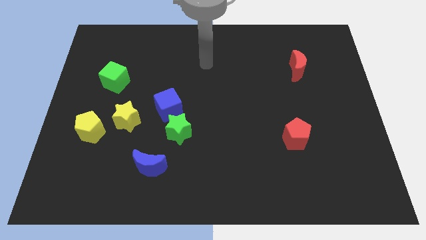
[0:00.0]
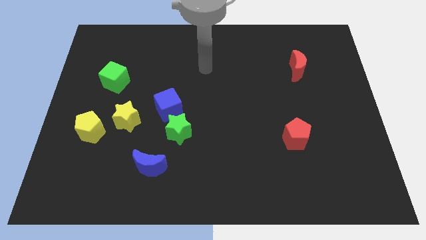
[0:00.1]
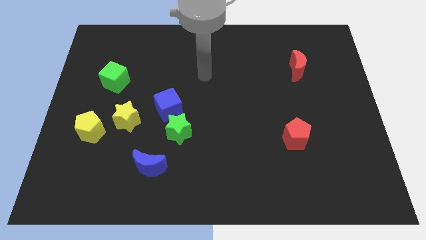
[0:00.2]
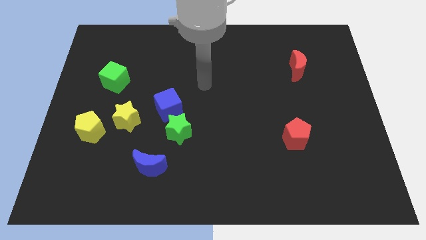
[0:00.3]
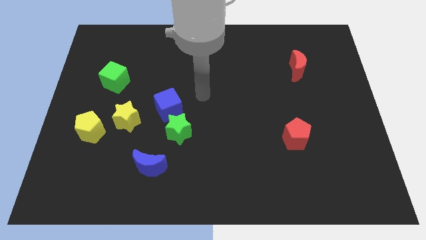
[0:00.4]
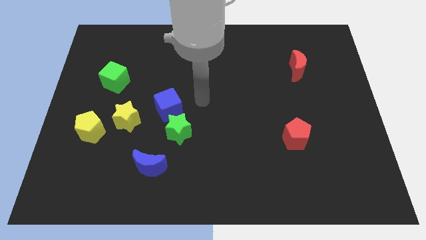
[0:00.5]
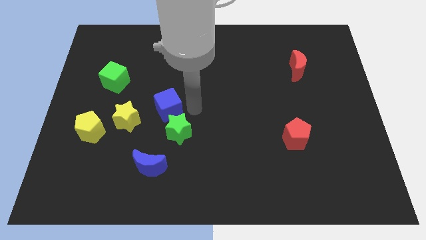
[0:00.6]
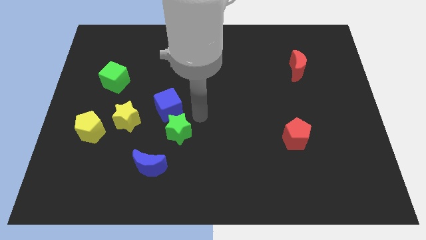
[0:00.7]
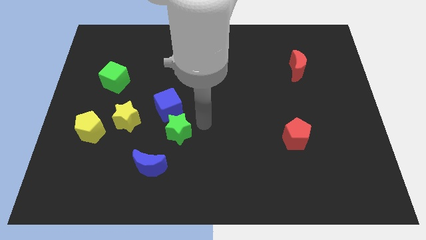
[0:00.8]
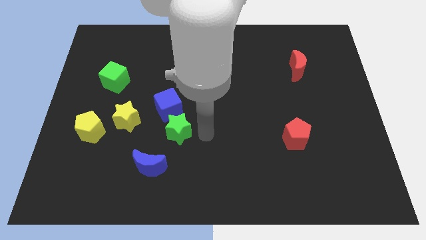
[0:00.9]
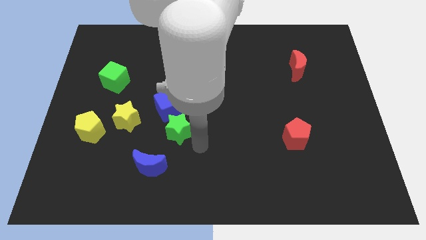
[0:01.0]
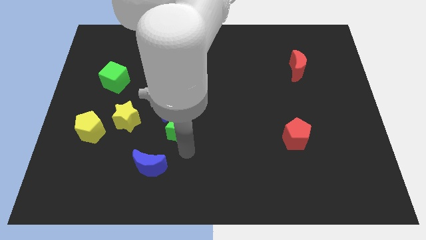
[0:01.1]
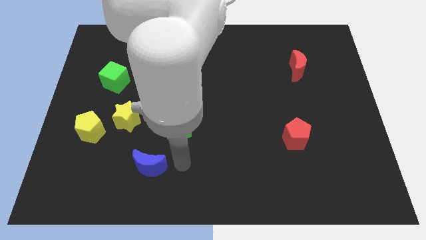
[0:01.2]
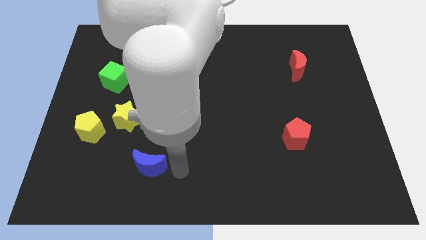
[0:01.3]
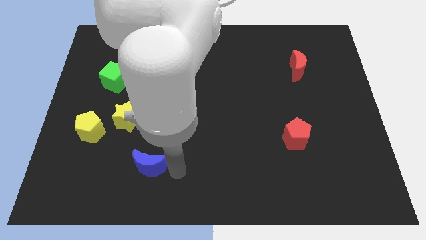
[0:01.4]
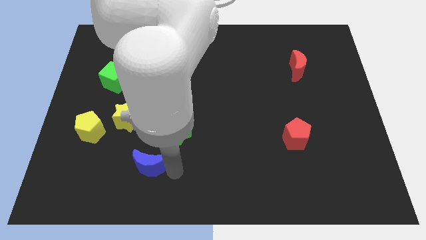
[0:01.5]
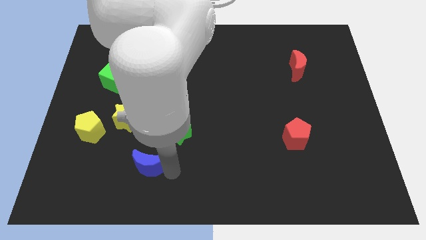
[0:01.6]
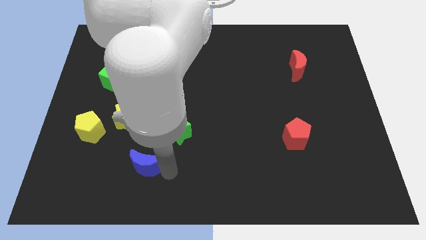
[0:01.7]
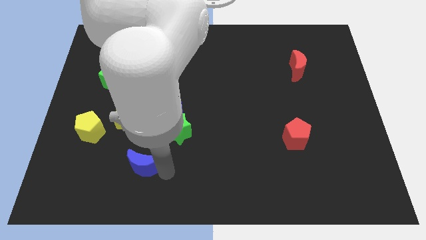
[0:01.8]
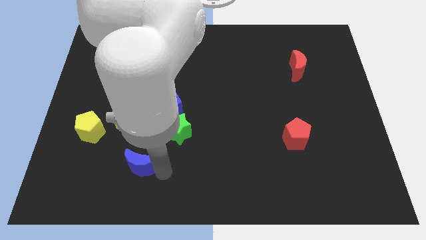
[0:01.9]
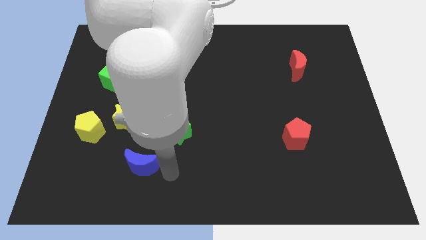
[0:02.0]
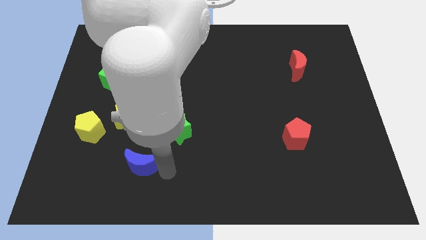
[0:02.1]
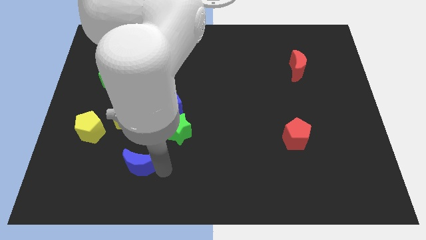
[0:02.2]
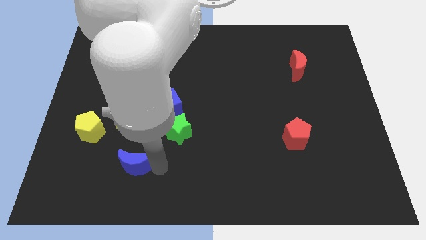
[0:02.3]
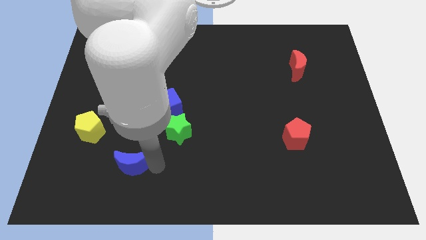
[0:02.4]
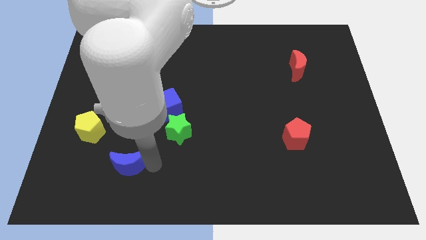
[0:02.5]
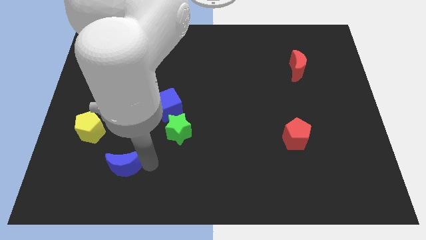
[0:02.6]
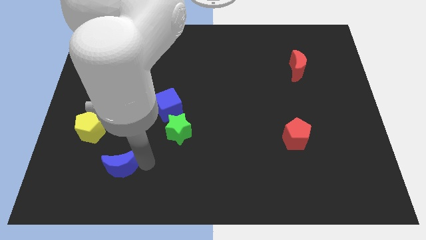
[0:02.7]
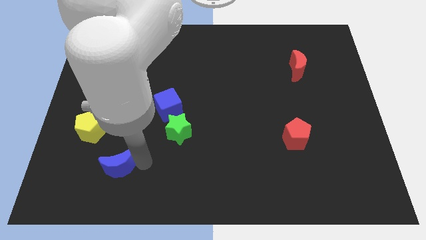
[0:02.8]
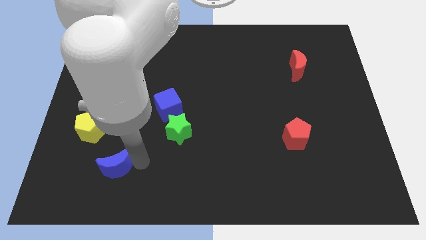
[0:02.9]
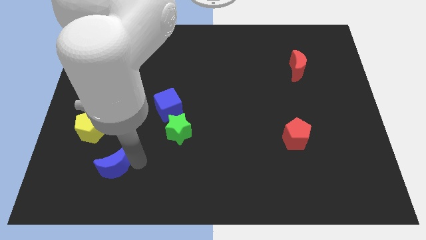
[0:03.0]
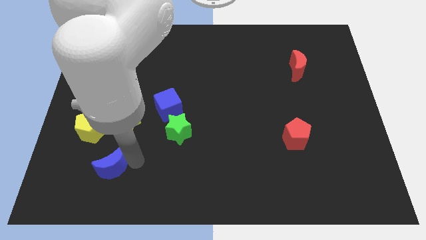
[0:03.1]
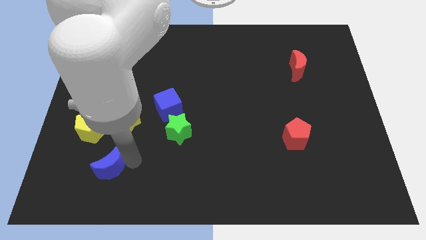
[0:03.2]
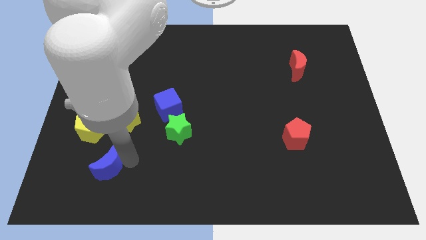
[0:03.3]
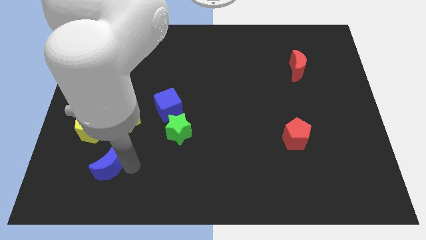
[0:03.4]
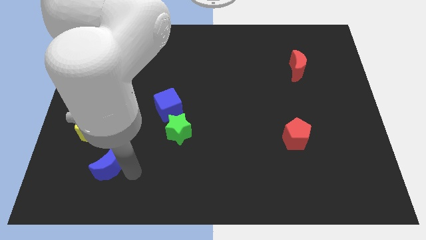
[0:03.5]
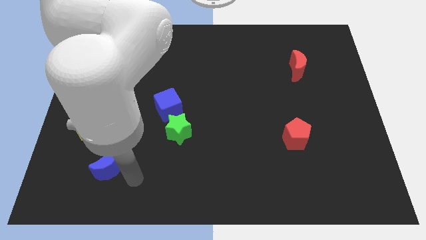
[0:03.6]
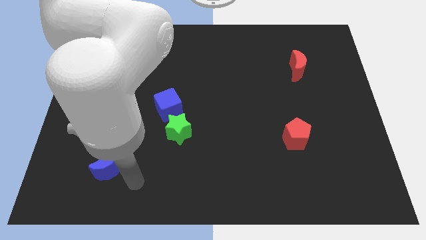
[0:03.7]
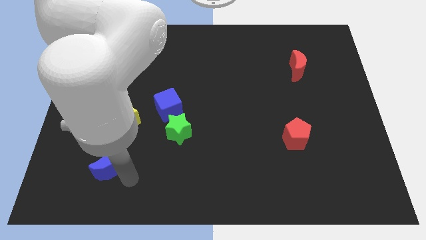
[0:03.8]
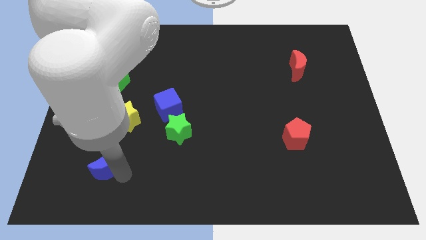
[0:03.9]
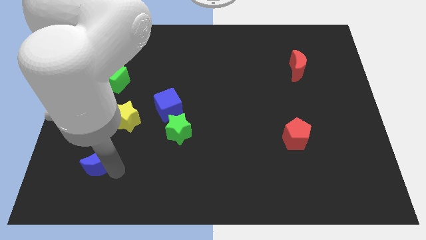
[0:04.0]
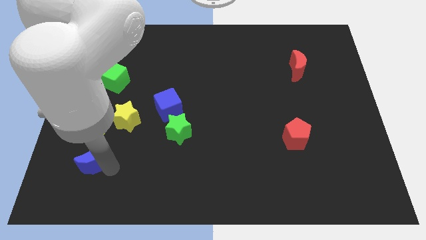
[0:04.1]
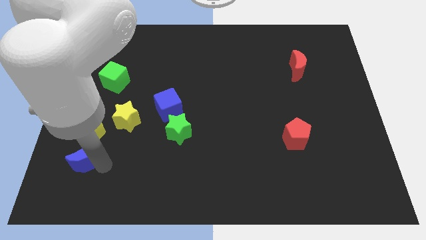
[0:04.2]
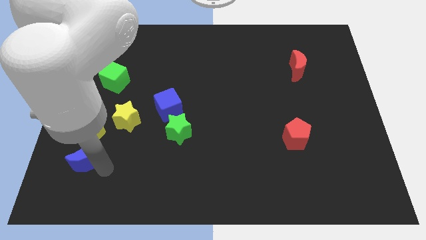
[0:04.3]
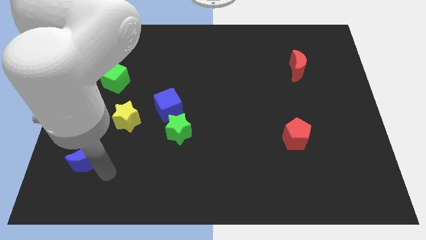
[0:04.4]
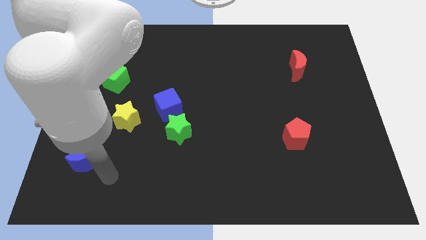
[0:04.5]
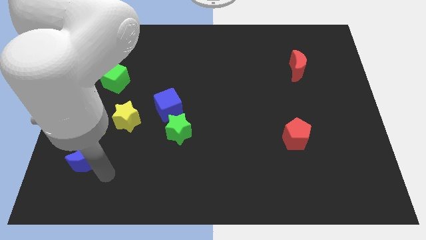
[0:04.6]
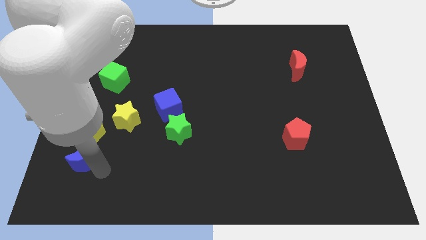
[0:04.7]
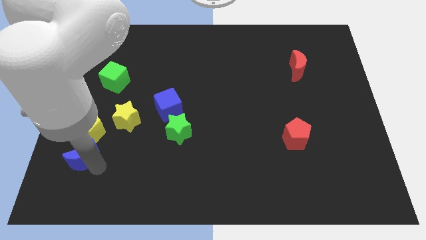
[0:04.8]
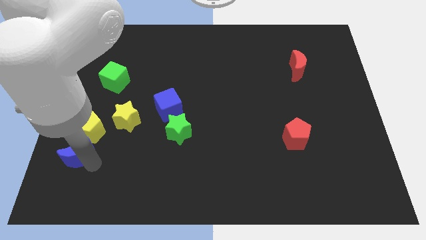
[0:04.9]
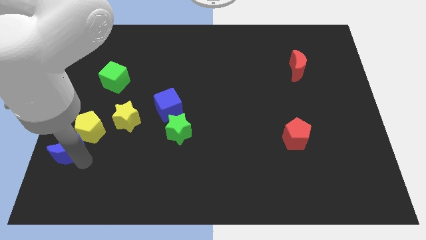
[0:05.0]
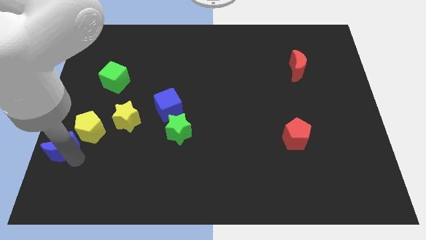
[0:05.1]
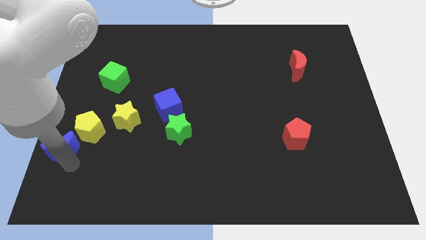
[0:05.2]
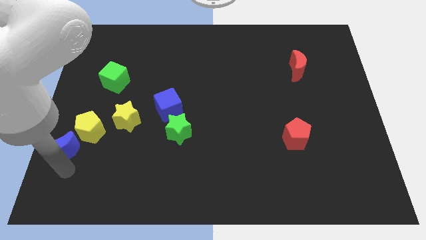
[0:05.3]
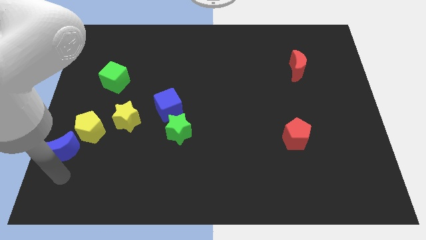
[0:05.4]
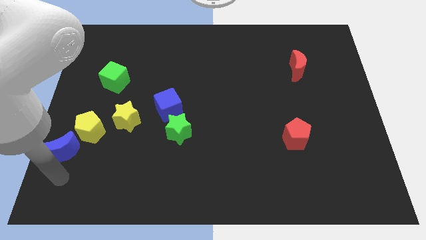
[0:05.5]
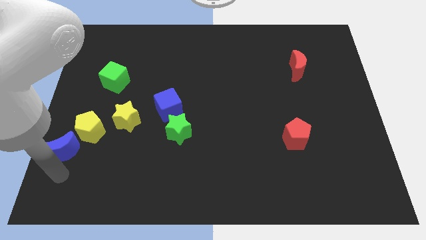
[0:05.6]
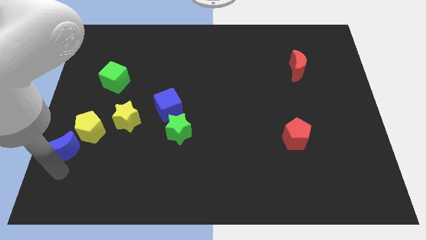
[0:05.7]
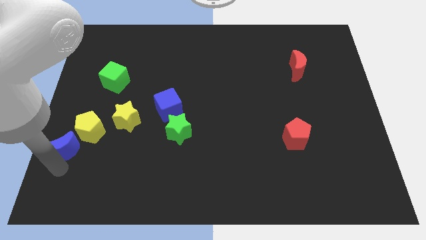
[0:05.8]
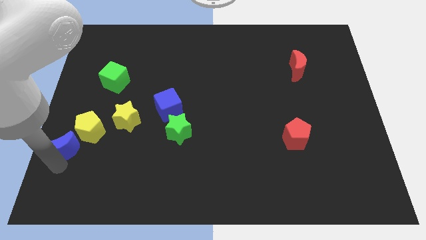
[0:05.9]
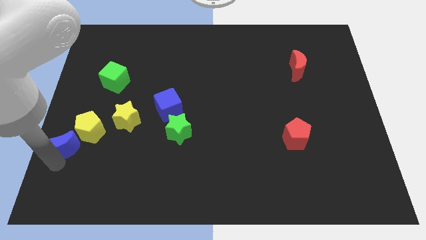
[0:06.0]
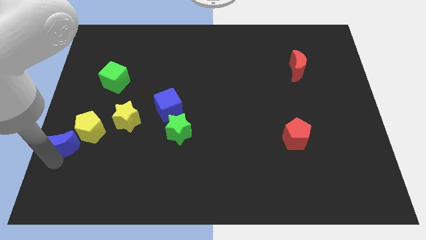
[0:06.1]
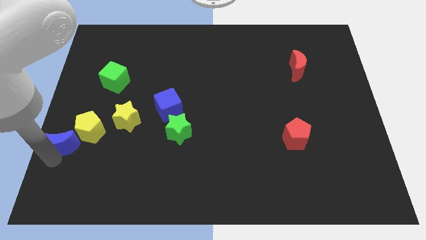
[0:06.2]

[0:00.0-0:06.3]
move the blue moon to the left side
